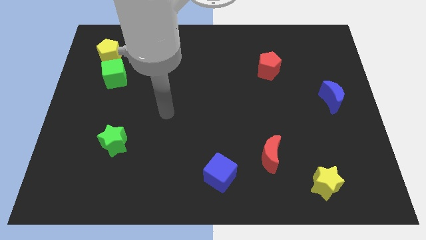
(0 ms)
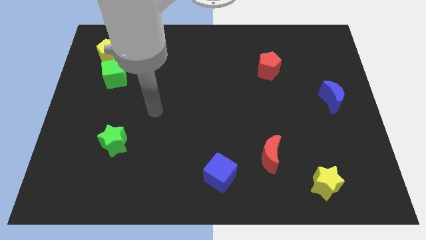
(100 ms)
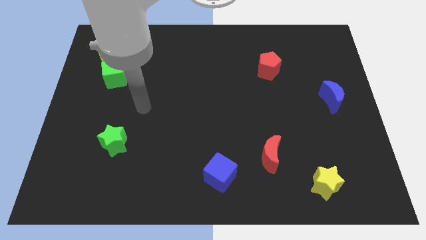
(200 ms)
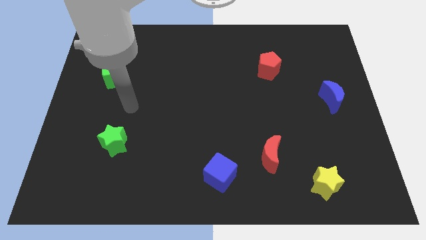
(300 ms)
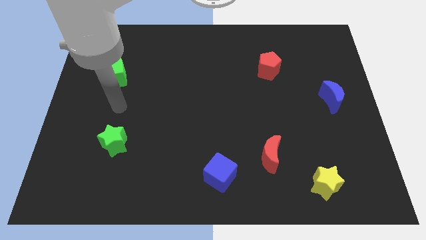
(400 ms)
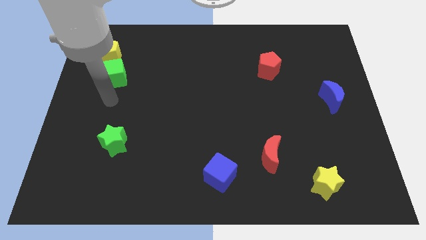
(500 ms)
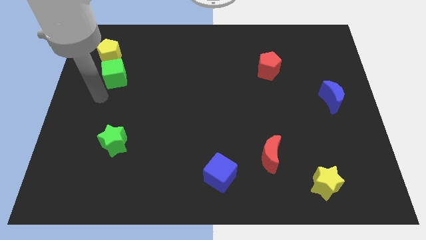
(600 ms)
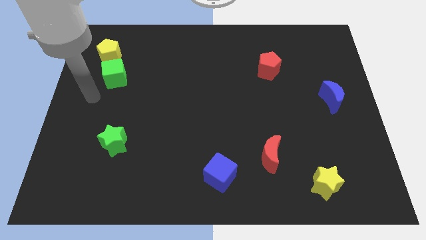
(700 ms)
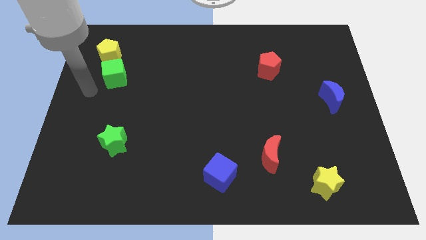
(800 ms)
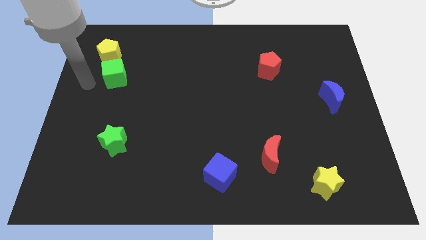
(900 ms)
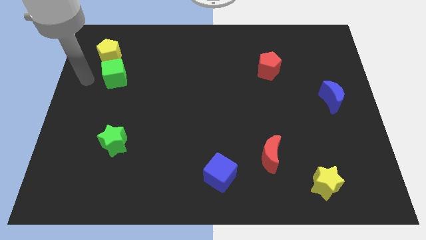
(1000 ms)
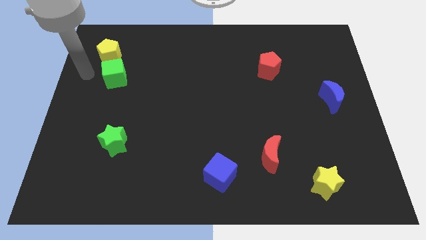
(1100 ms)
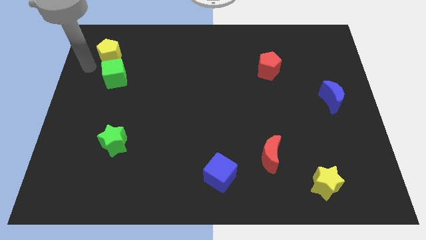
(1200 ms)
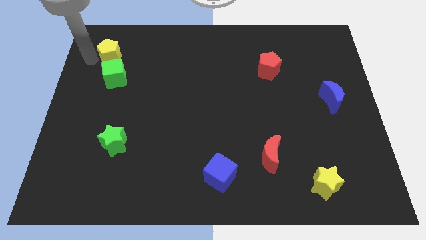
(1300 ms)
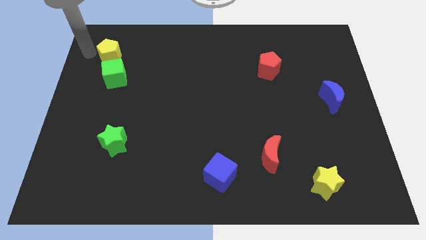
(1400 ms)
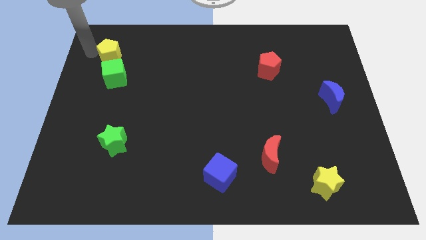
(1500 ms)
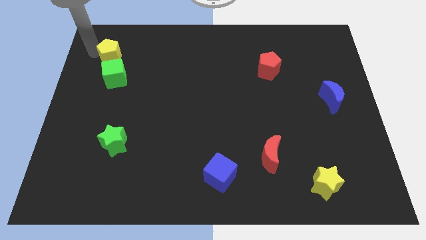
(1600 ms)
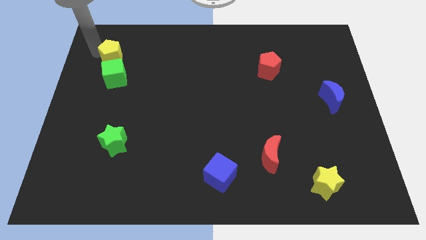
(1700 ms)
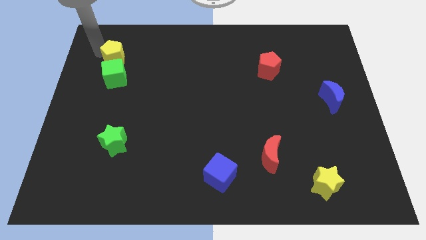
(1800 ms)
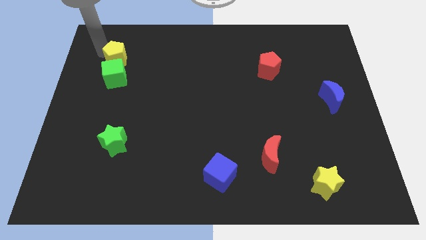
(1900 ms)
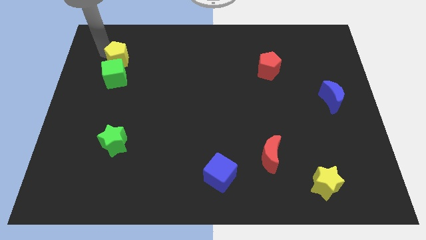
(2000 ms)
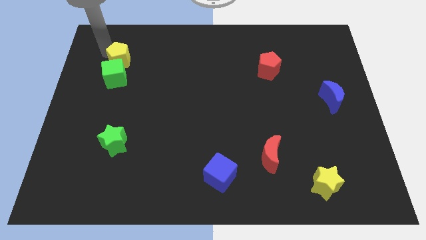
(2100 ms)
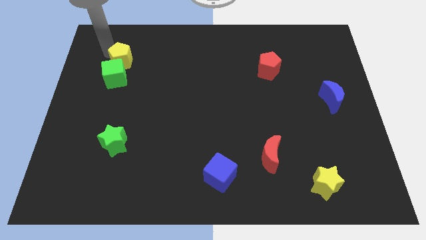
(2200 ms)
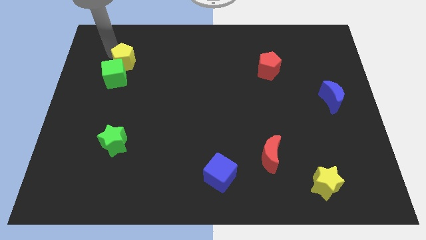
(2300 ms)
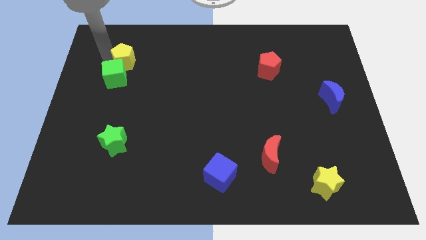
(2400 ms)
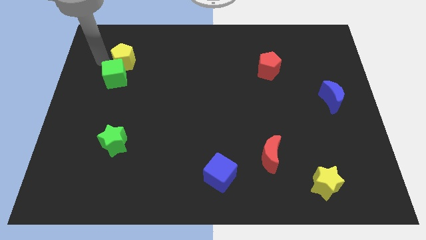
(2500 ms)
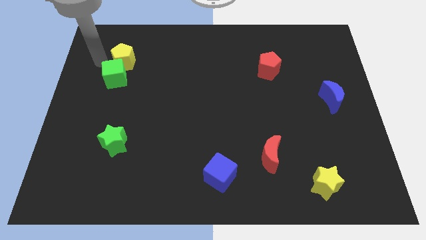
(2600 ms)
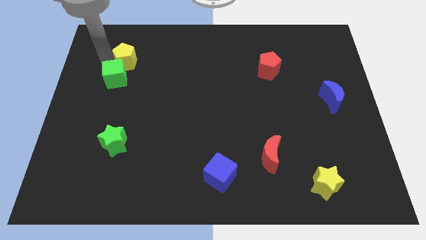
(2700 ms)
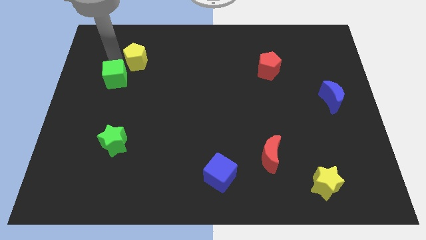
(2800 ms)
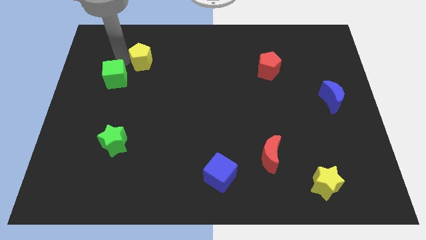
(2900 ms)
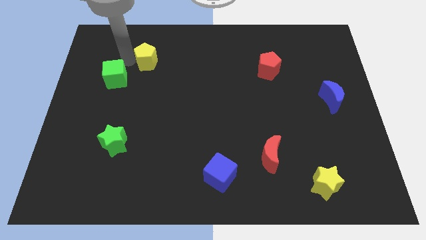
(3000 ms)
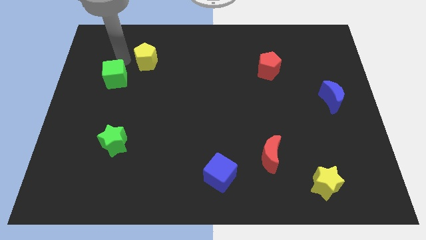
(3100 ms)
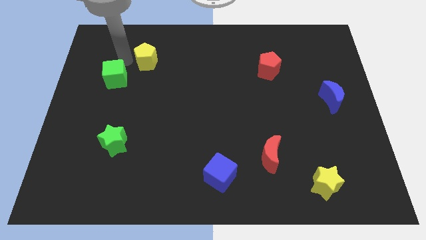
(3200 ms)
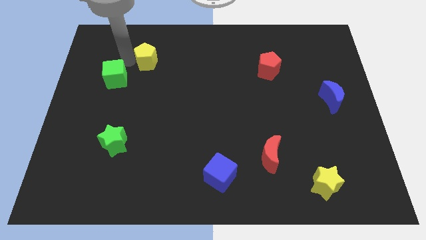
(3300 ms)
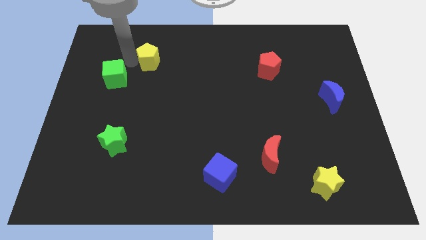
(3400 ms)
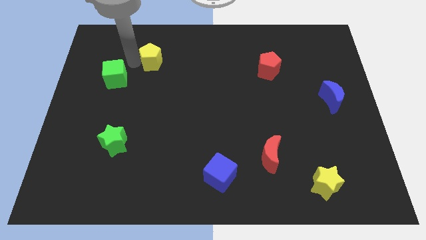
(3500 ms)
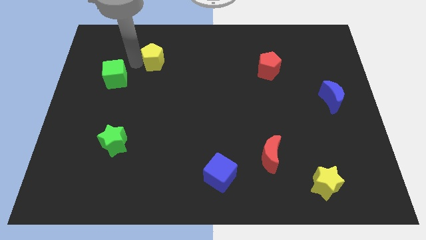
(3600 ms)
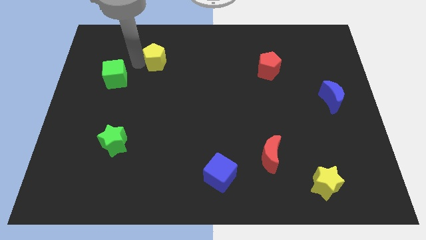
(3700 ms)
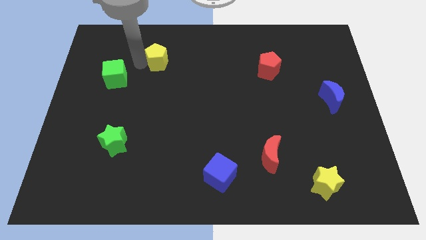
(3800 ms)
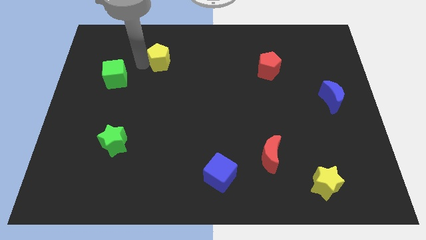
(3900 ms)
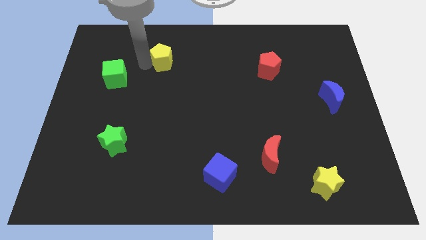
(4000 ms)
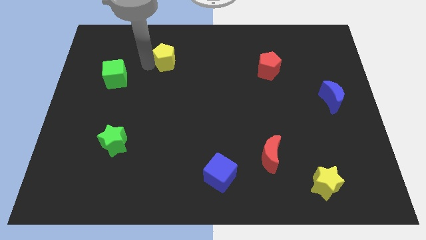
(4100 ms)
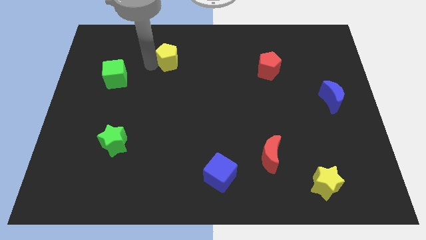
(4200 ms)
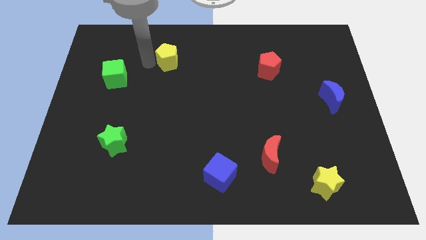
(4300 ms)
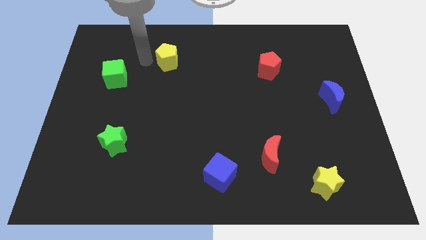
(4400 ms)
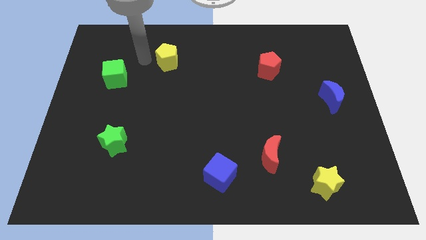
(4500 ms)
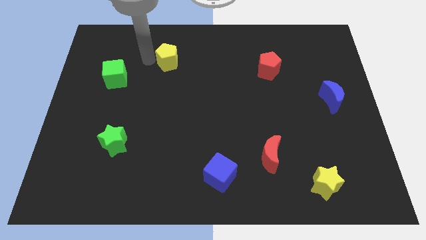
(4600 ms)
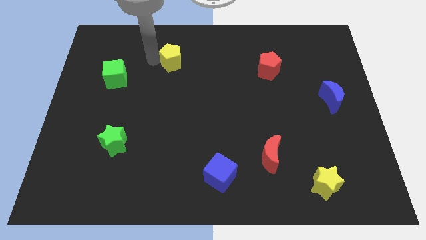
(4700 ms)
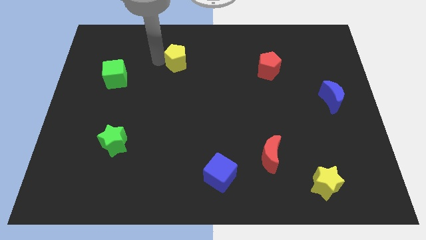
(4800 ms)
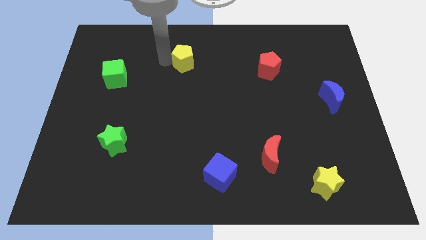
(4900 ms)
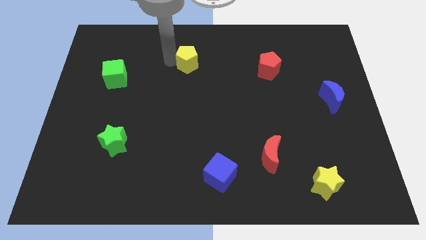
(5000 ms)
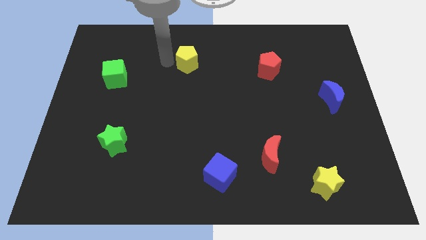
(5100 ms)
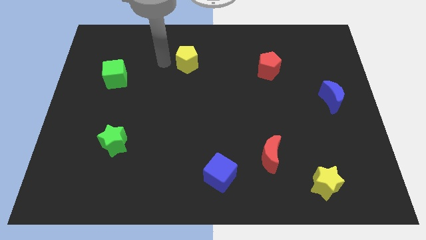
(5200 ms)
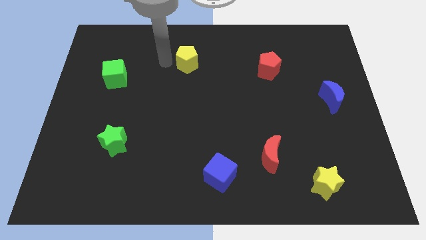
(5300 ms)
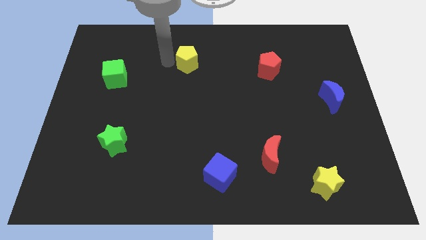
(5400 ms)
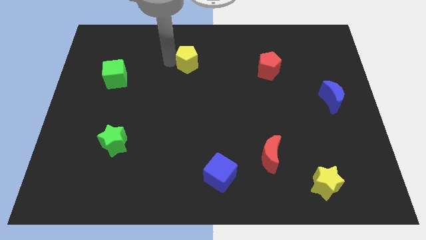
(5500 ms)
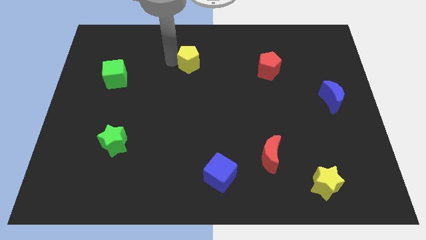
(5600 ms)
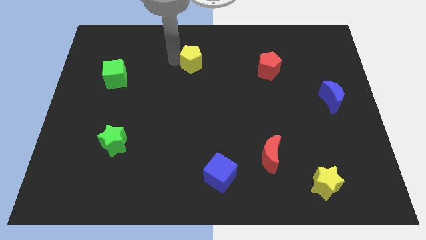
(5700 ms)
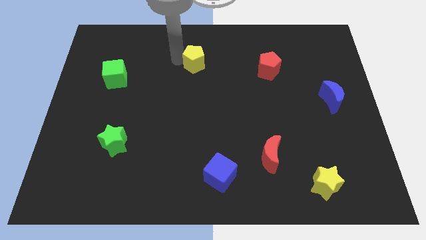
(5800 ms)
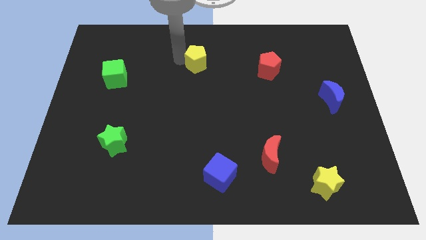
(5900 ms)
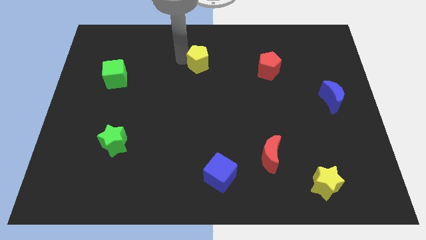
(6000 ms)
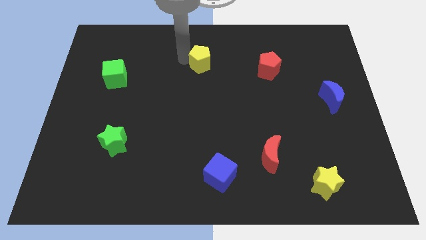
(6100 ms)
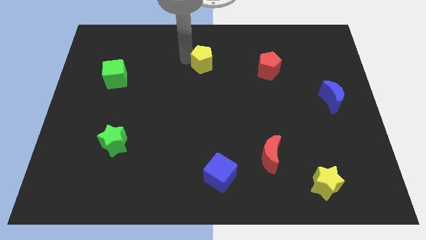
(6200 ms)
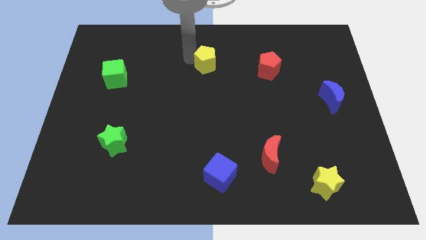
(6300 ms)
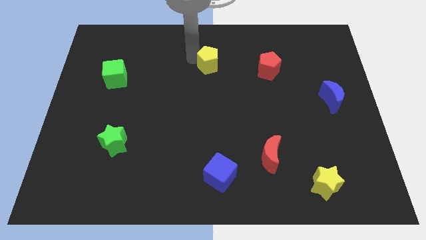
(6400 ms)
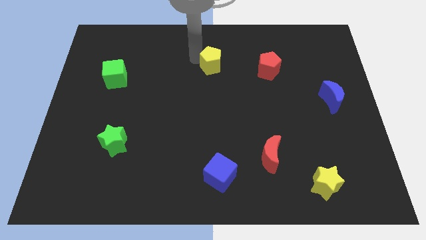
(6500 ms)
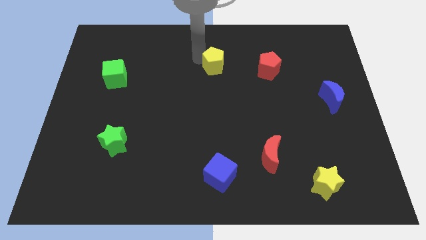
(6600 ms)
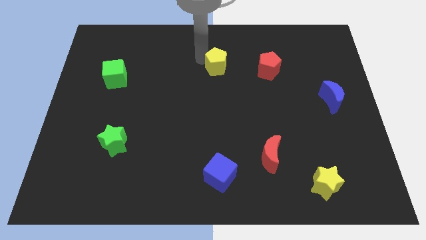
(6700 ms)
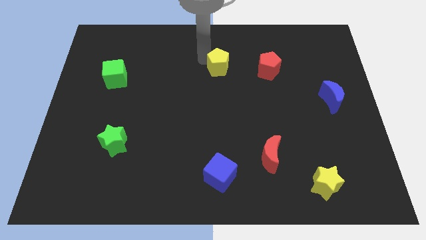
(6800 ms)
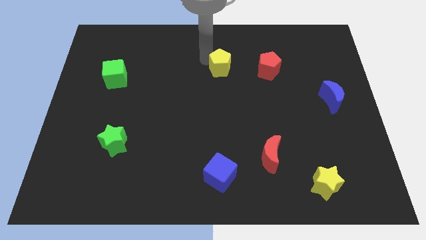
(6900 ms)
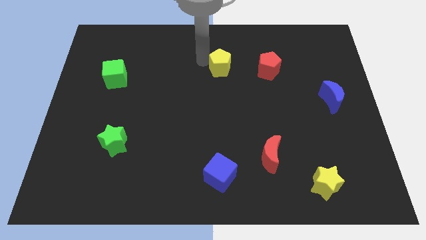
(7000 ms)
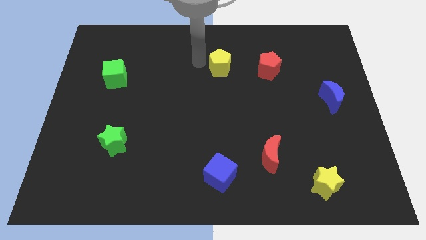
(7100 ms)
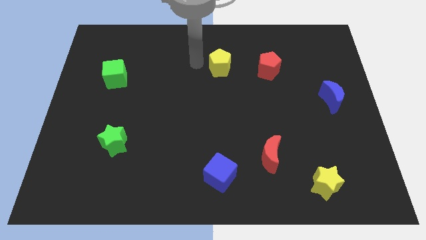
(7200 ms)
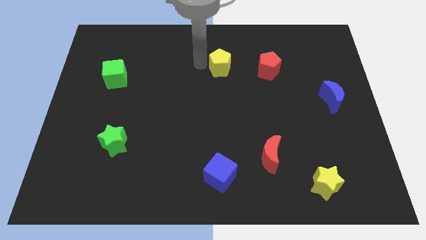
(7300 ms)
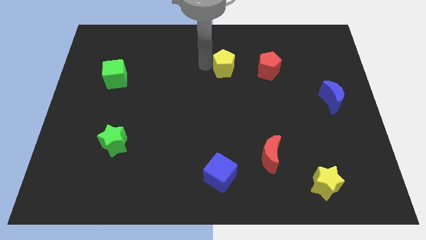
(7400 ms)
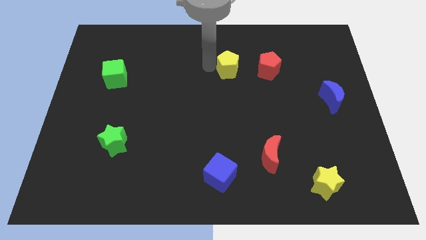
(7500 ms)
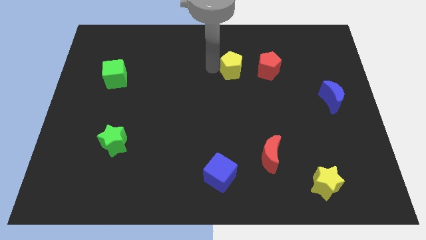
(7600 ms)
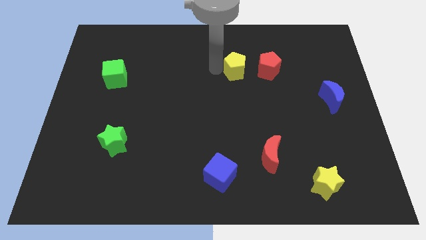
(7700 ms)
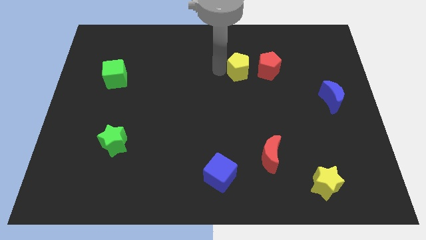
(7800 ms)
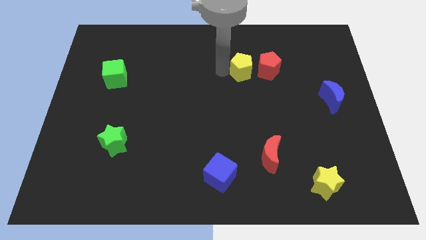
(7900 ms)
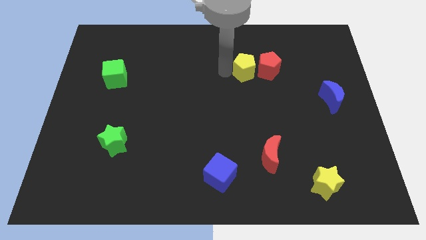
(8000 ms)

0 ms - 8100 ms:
move the yellow pentagon to the red pentagon
